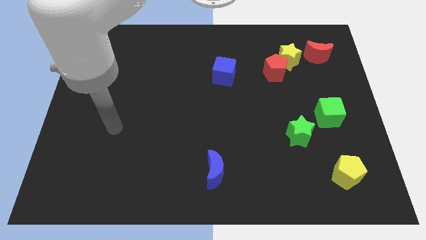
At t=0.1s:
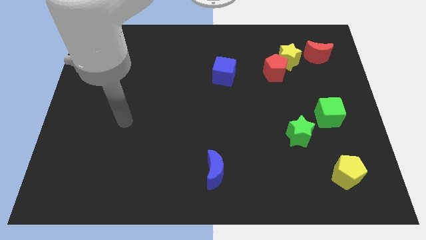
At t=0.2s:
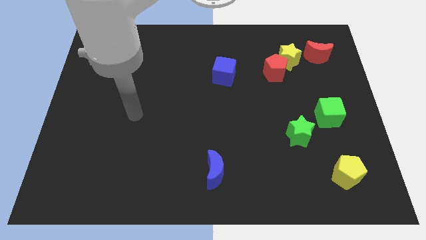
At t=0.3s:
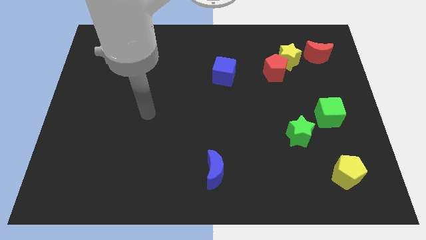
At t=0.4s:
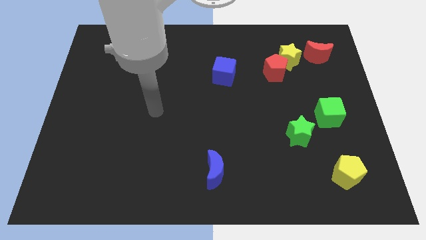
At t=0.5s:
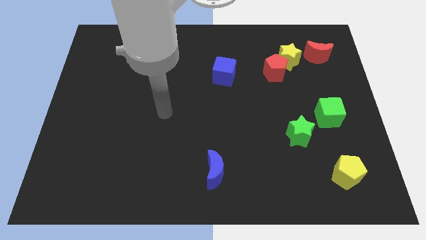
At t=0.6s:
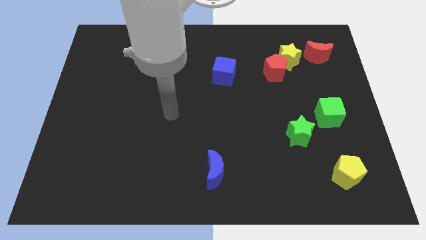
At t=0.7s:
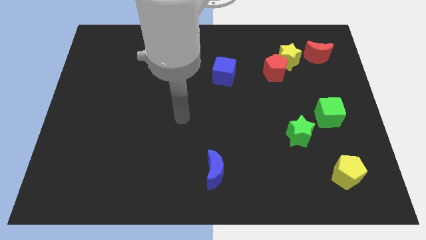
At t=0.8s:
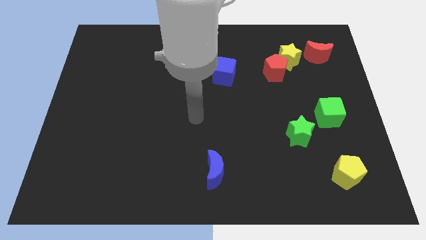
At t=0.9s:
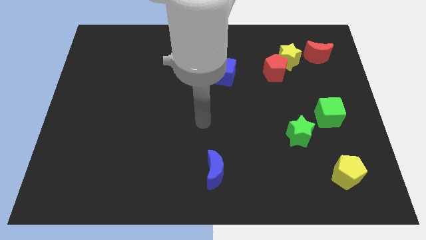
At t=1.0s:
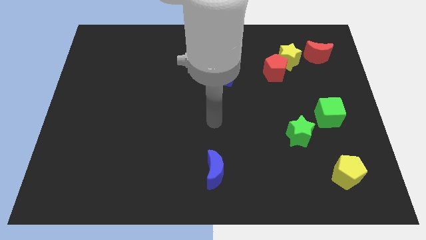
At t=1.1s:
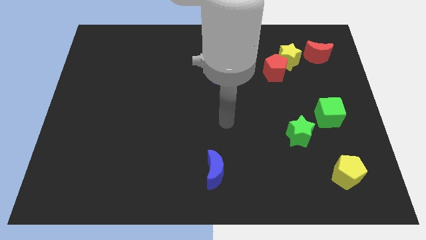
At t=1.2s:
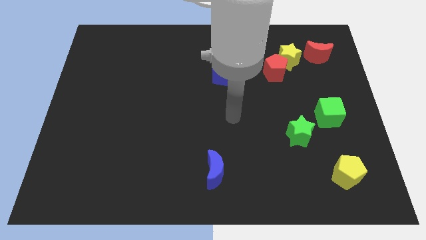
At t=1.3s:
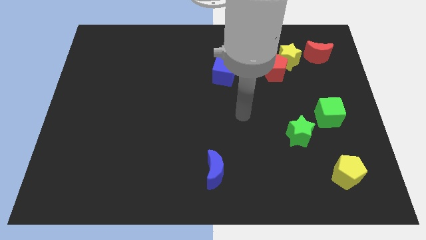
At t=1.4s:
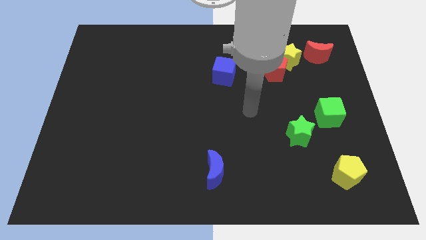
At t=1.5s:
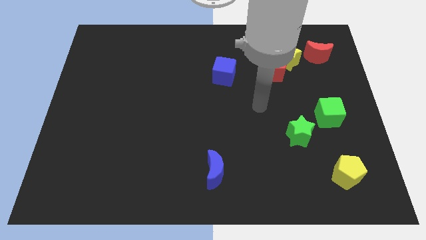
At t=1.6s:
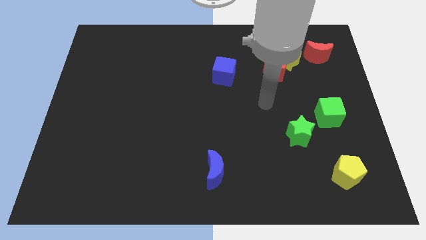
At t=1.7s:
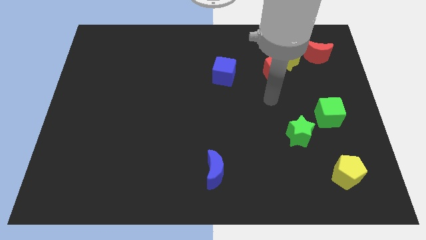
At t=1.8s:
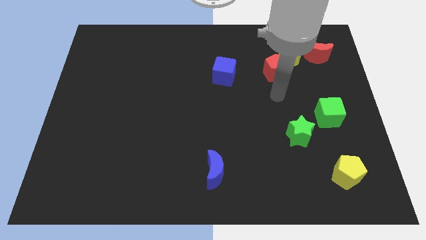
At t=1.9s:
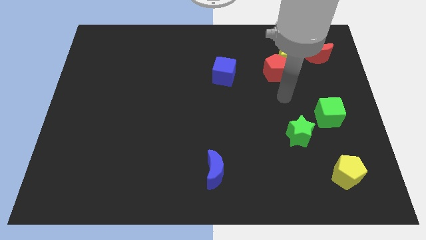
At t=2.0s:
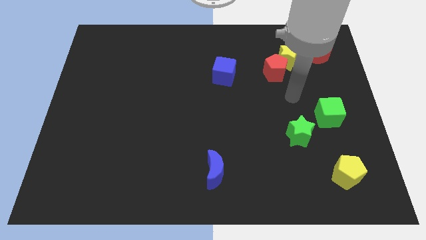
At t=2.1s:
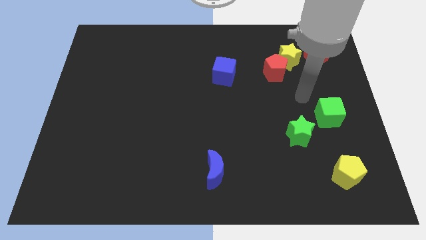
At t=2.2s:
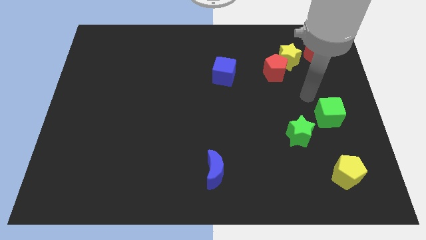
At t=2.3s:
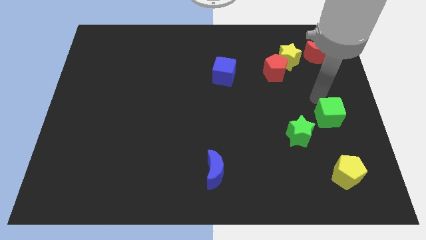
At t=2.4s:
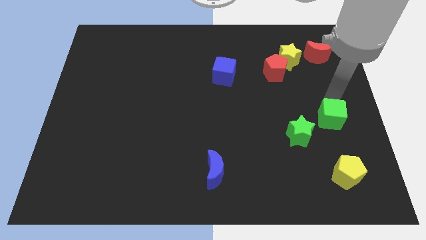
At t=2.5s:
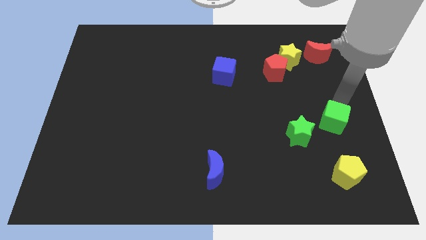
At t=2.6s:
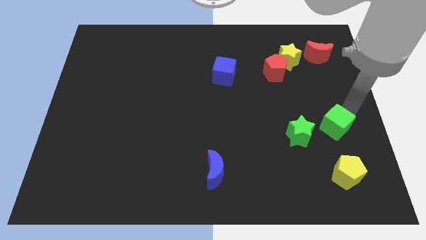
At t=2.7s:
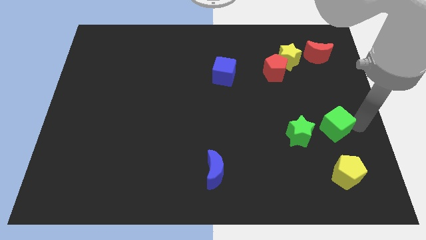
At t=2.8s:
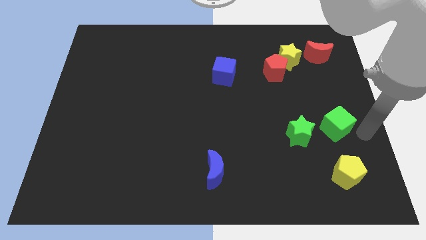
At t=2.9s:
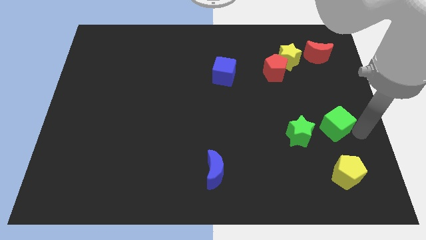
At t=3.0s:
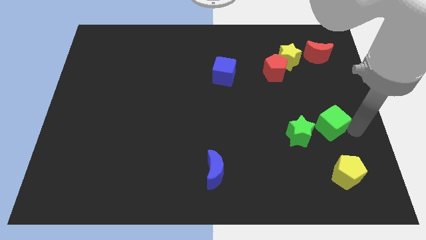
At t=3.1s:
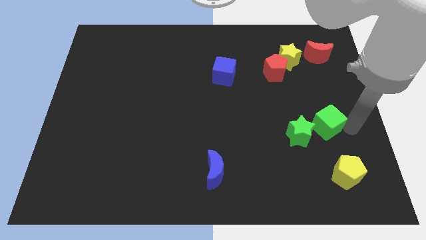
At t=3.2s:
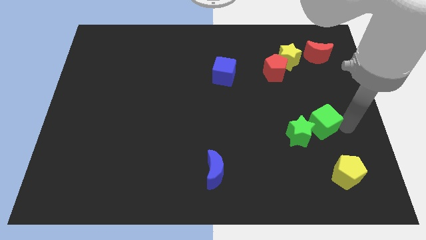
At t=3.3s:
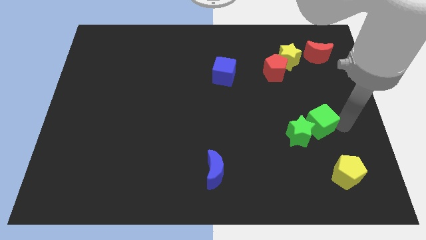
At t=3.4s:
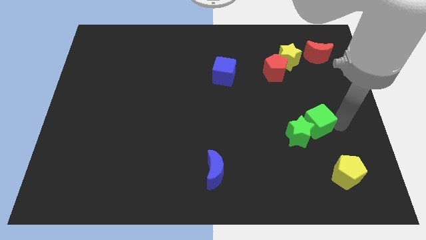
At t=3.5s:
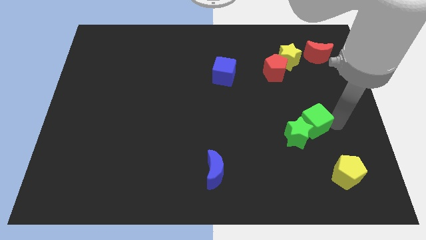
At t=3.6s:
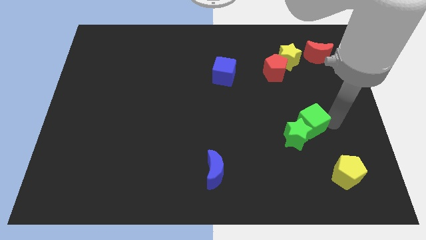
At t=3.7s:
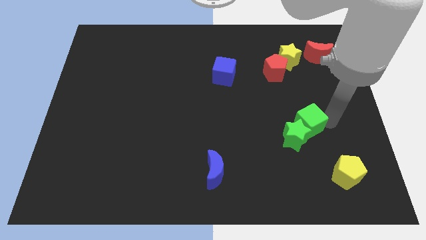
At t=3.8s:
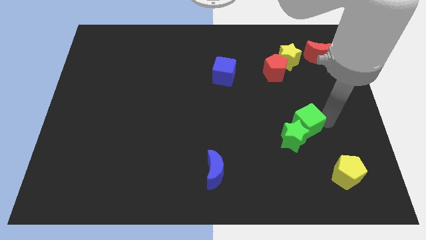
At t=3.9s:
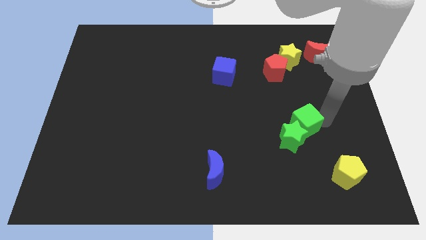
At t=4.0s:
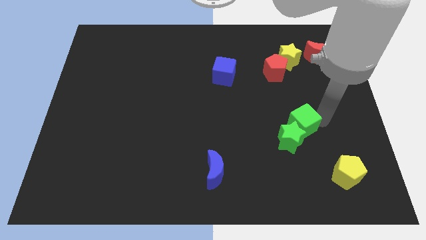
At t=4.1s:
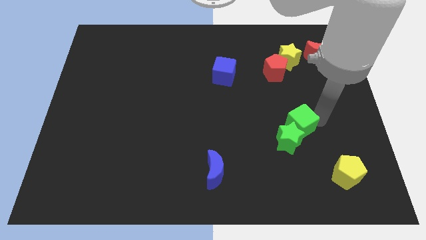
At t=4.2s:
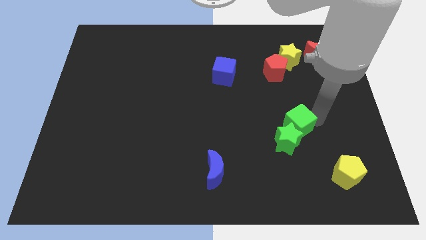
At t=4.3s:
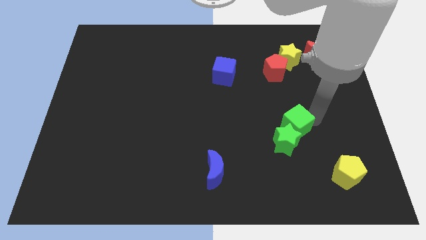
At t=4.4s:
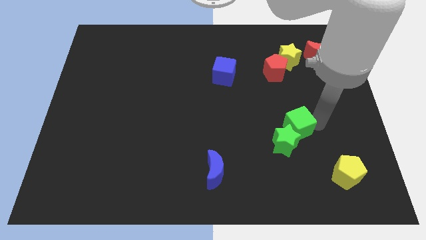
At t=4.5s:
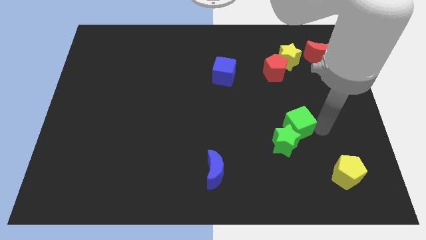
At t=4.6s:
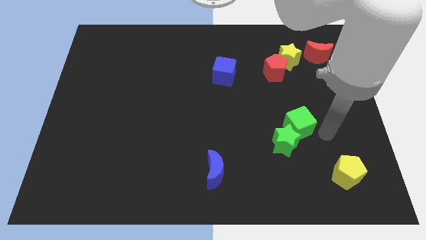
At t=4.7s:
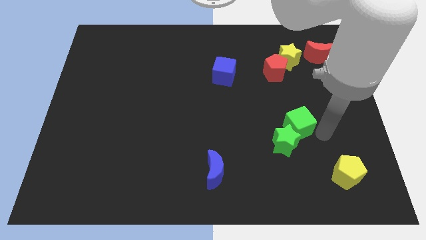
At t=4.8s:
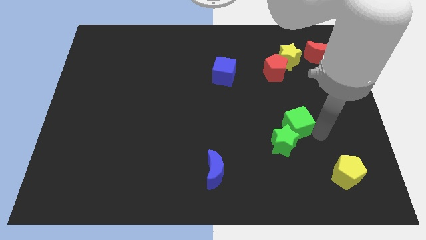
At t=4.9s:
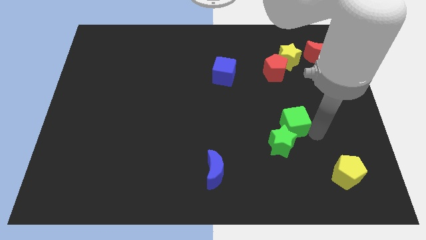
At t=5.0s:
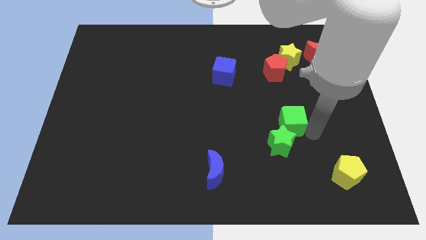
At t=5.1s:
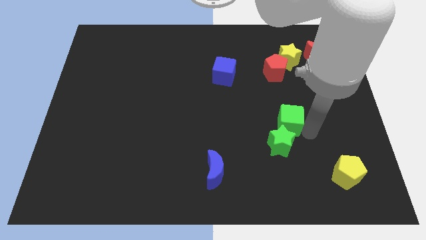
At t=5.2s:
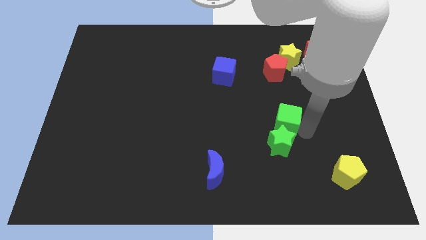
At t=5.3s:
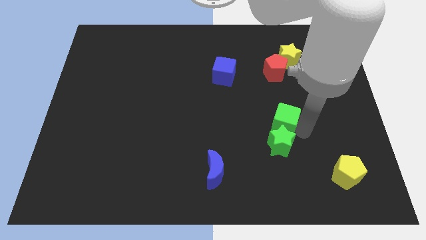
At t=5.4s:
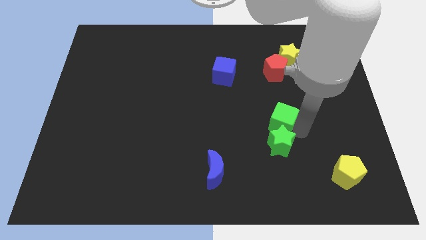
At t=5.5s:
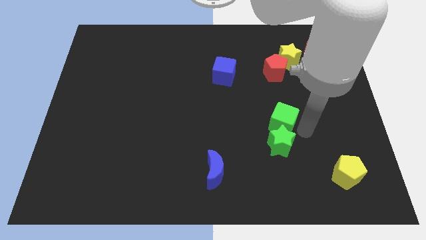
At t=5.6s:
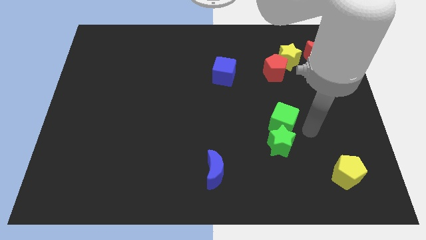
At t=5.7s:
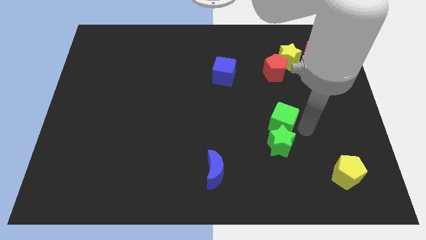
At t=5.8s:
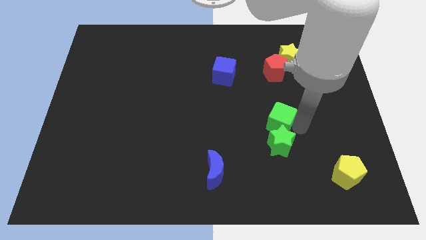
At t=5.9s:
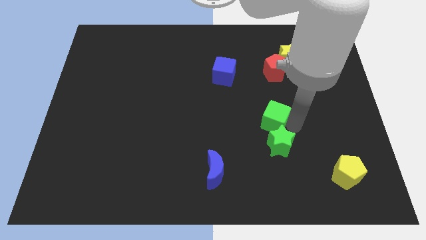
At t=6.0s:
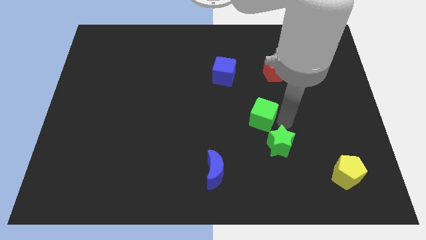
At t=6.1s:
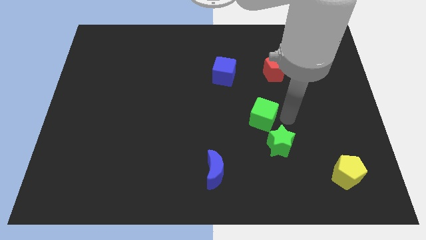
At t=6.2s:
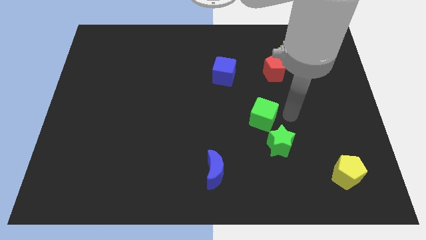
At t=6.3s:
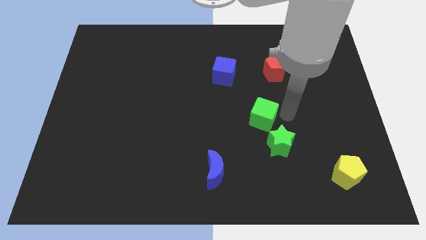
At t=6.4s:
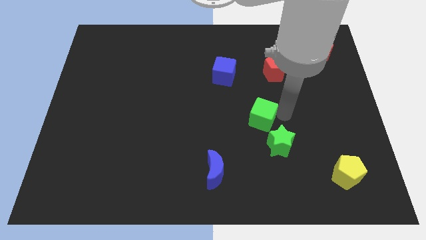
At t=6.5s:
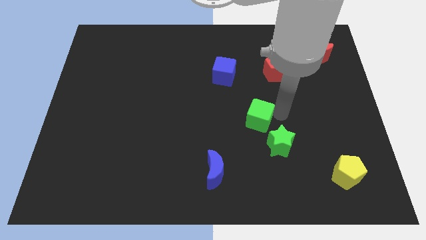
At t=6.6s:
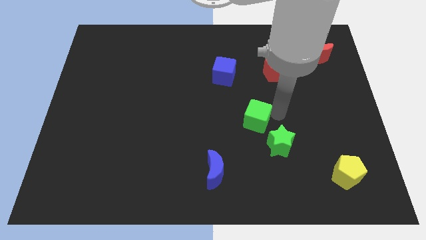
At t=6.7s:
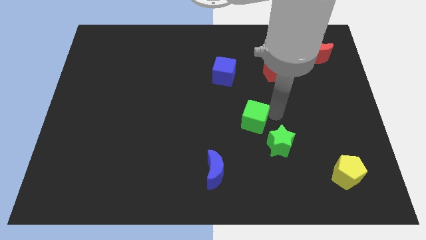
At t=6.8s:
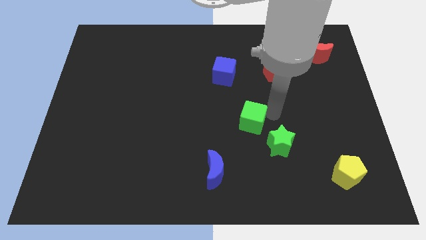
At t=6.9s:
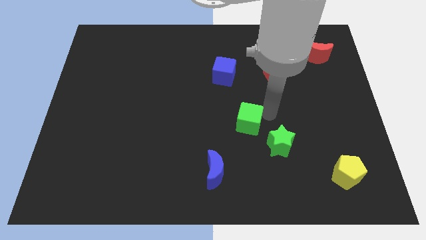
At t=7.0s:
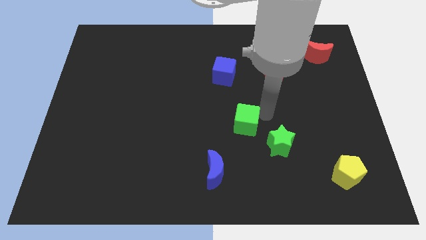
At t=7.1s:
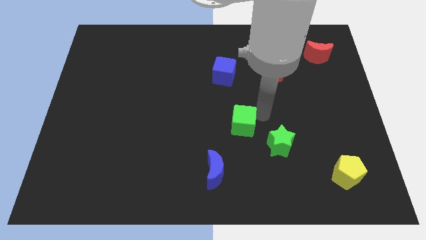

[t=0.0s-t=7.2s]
slide the green cube left

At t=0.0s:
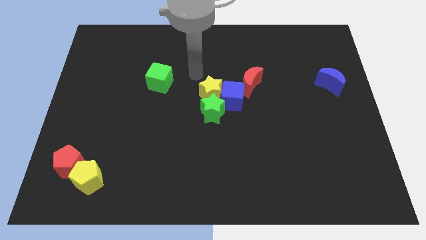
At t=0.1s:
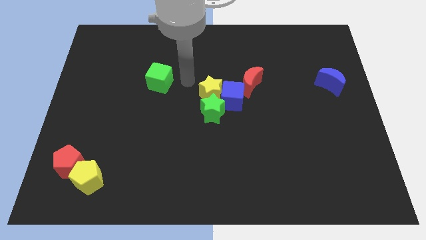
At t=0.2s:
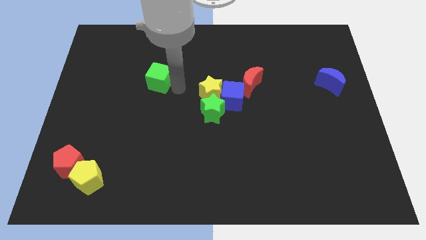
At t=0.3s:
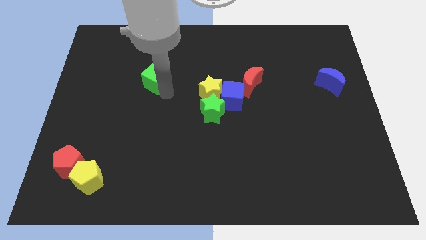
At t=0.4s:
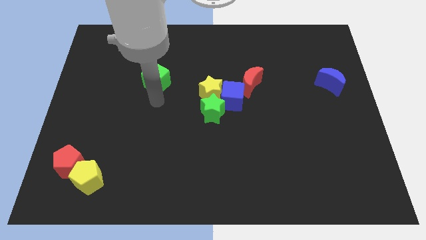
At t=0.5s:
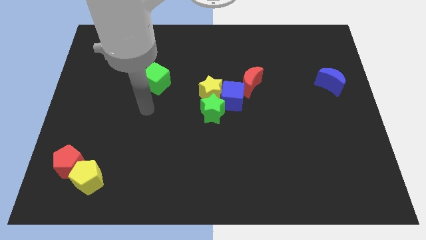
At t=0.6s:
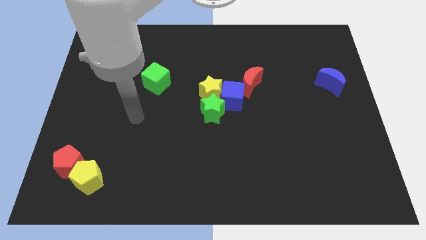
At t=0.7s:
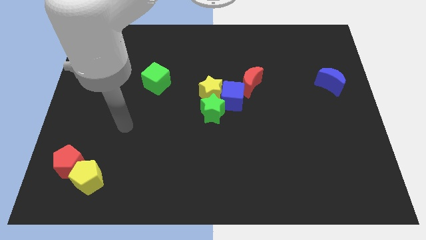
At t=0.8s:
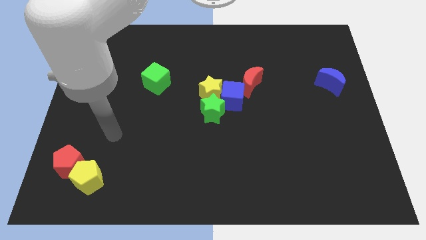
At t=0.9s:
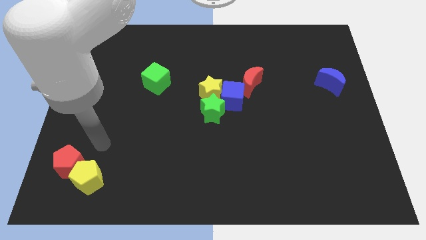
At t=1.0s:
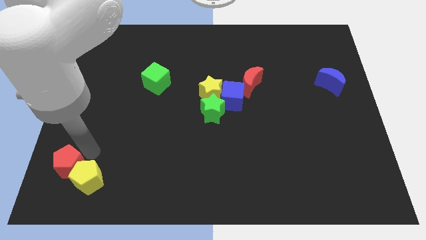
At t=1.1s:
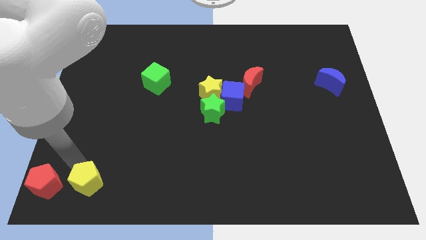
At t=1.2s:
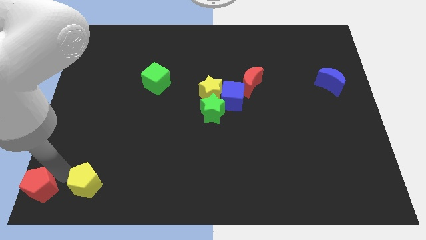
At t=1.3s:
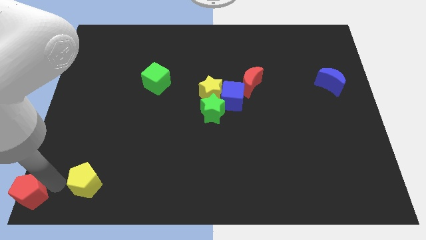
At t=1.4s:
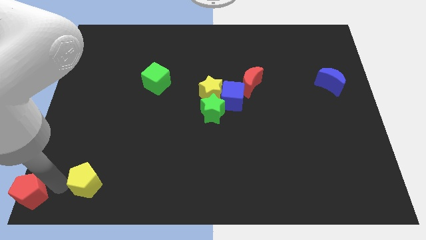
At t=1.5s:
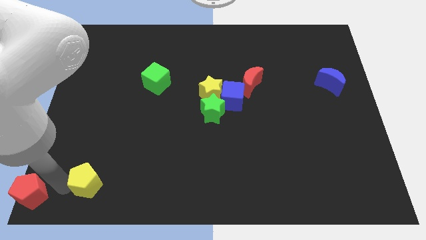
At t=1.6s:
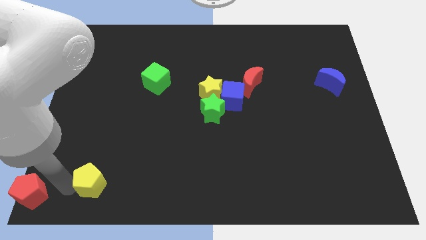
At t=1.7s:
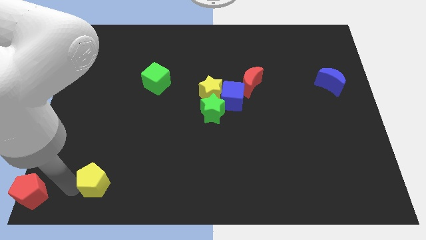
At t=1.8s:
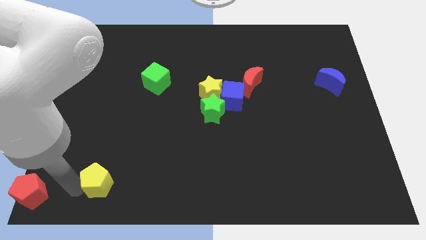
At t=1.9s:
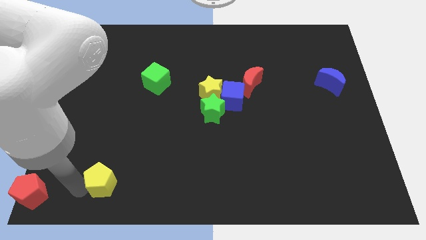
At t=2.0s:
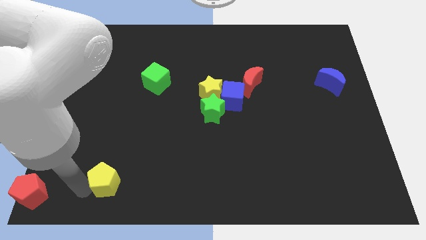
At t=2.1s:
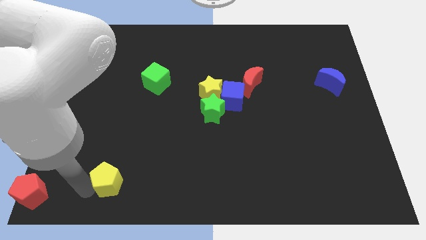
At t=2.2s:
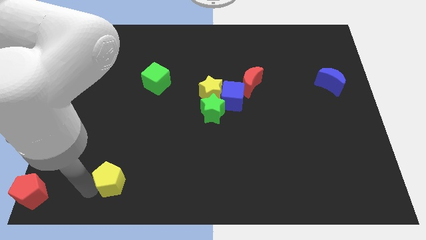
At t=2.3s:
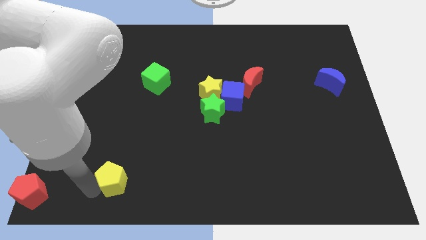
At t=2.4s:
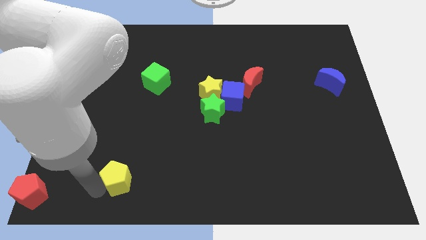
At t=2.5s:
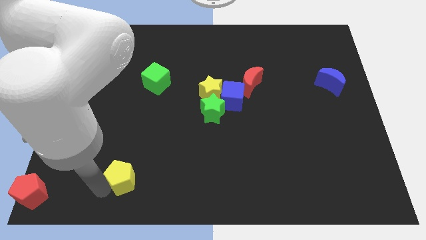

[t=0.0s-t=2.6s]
push the yellow pentagon a bit to the right
